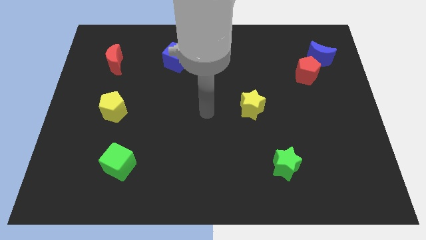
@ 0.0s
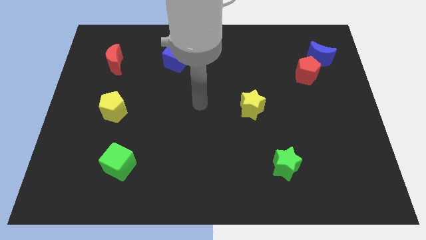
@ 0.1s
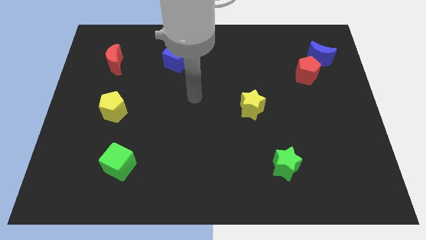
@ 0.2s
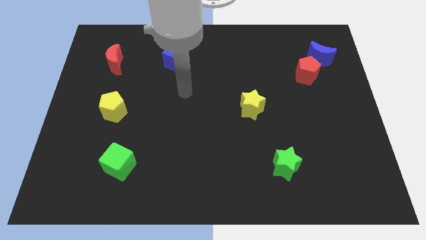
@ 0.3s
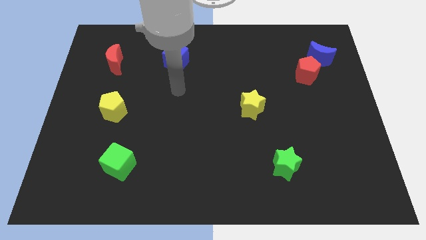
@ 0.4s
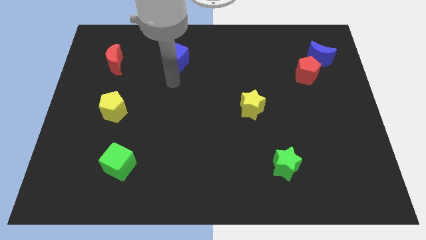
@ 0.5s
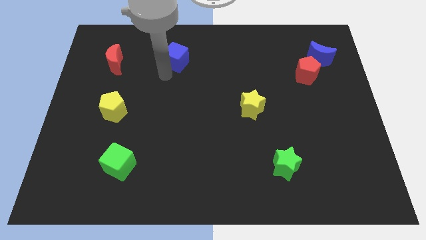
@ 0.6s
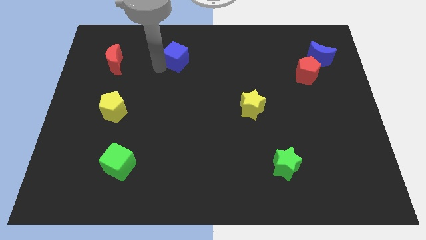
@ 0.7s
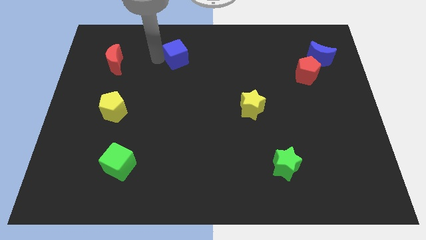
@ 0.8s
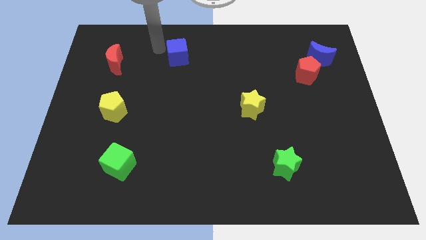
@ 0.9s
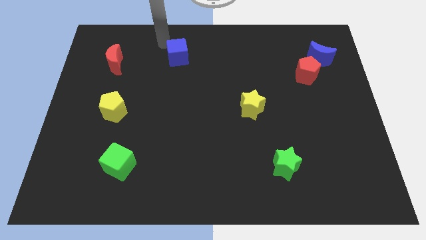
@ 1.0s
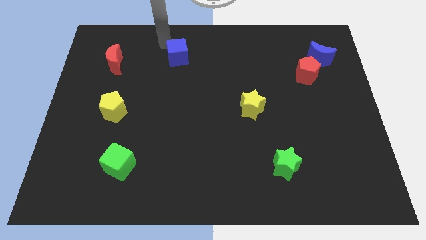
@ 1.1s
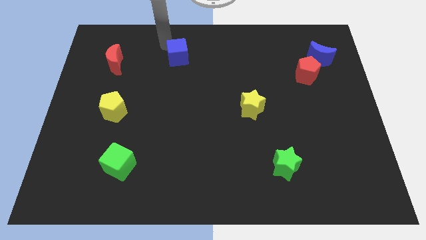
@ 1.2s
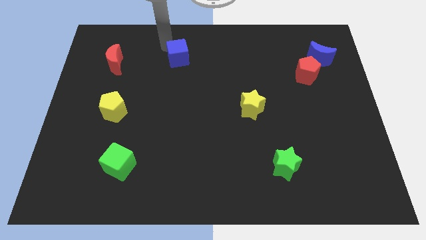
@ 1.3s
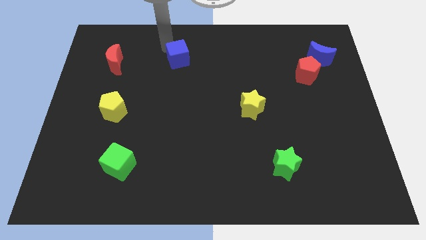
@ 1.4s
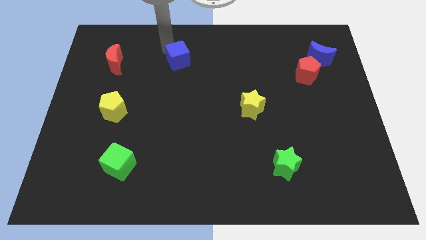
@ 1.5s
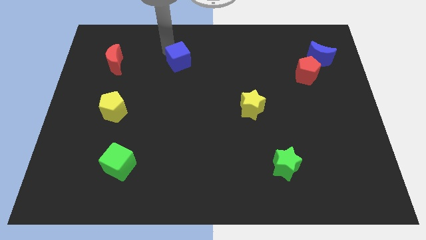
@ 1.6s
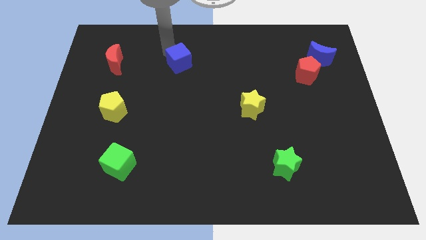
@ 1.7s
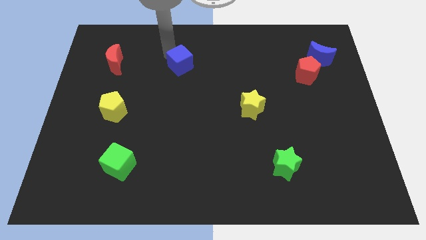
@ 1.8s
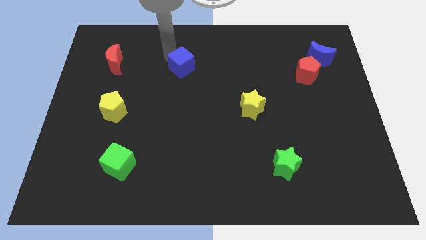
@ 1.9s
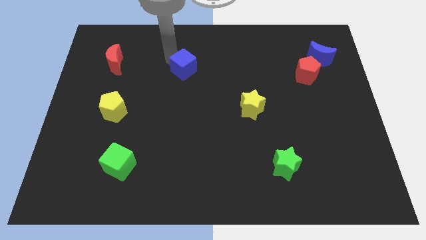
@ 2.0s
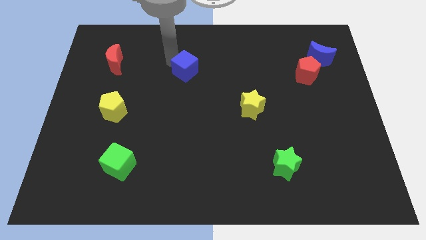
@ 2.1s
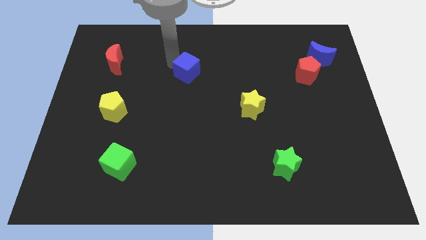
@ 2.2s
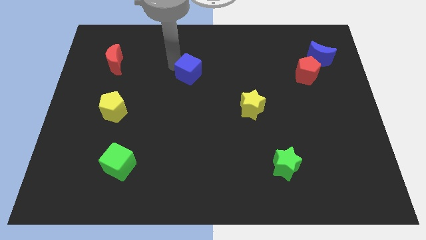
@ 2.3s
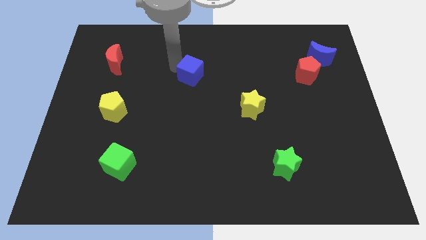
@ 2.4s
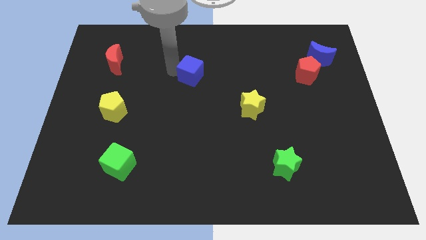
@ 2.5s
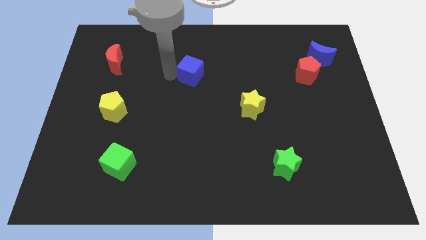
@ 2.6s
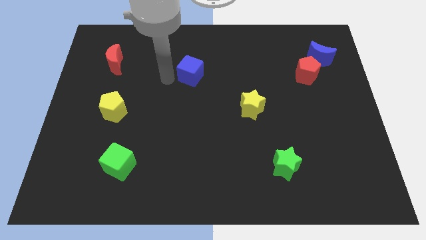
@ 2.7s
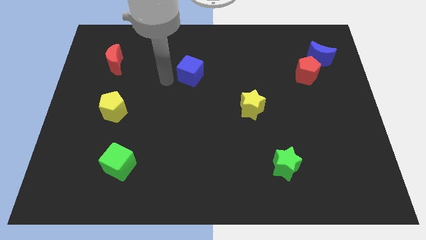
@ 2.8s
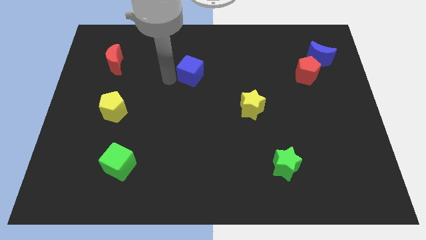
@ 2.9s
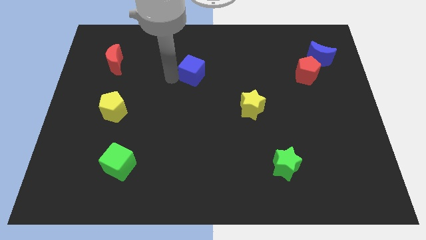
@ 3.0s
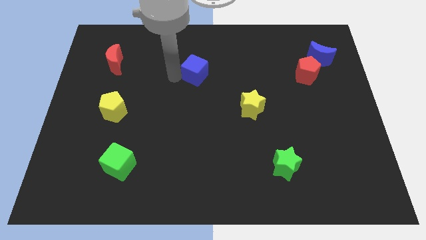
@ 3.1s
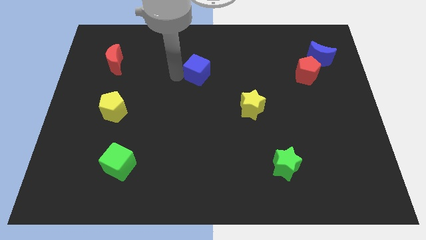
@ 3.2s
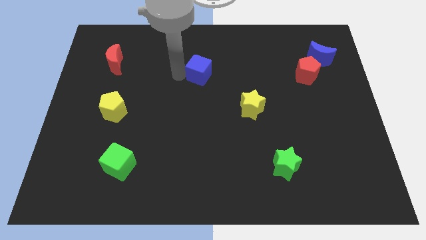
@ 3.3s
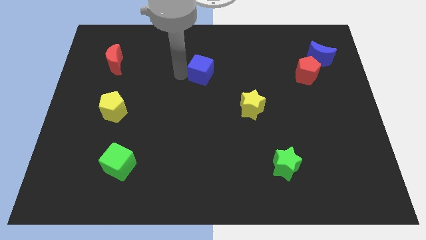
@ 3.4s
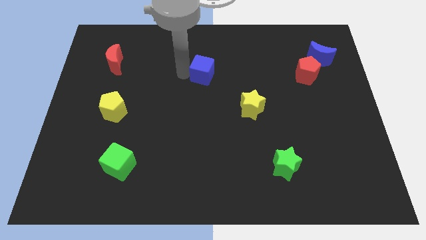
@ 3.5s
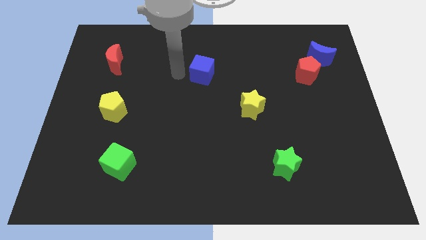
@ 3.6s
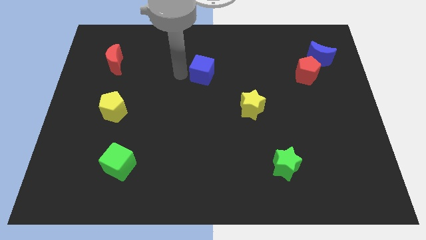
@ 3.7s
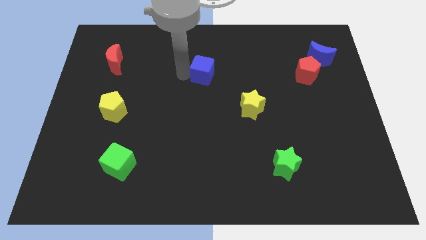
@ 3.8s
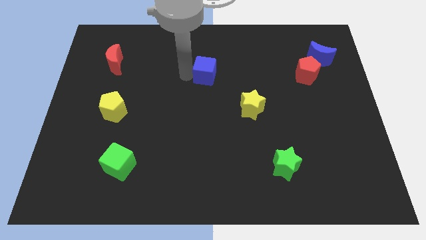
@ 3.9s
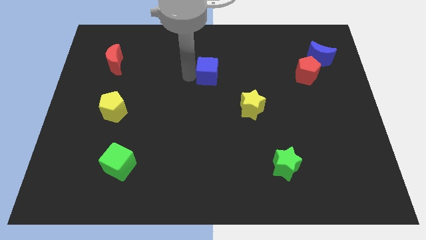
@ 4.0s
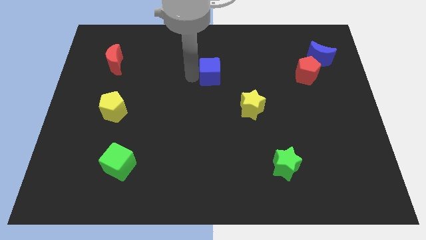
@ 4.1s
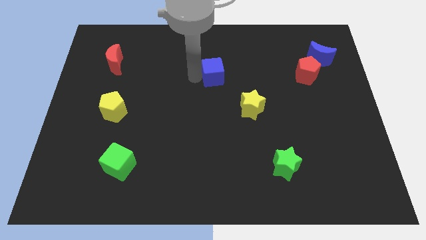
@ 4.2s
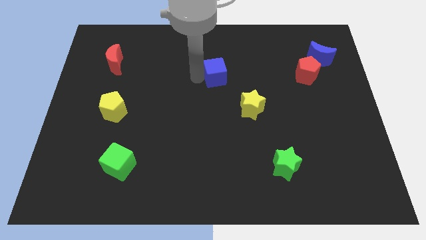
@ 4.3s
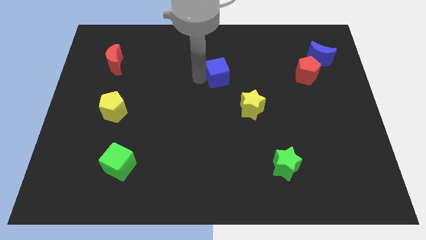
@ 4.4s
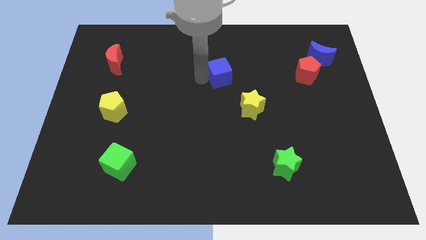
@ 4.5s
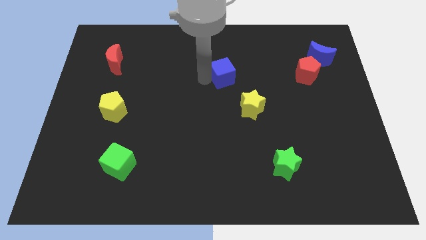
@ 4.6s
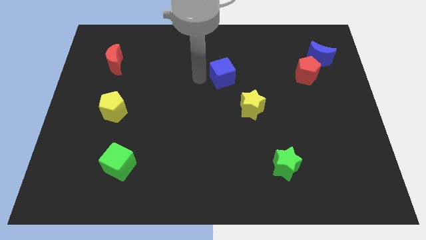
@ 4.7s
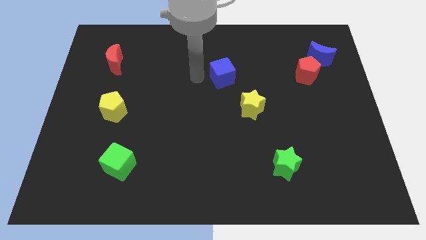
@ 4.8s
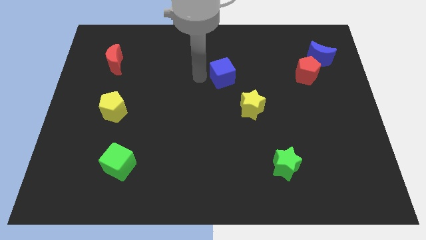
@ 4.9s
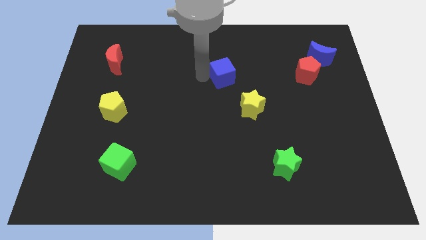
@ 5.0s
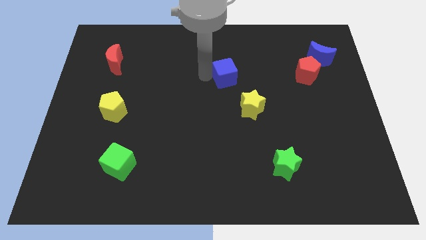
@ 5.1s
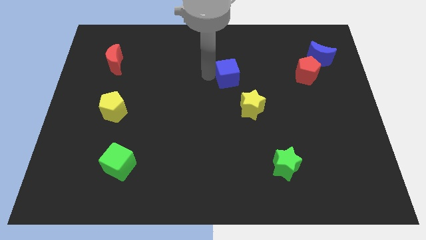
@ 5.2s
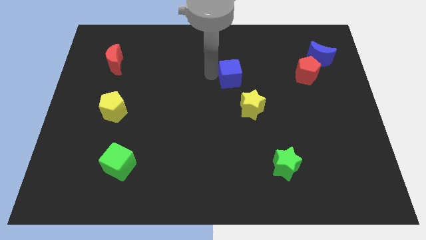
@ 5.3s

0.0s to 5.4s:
slide the blue cube to the top side of the yellow star

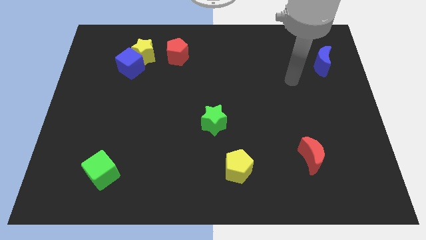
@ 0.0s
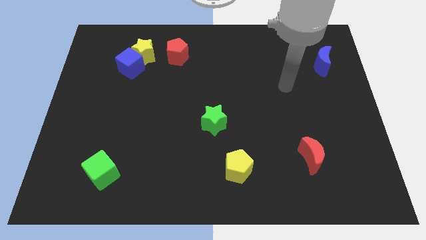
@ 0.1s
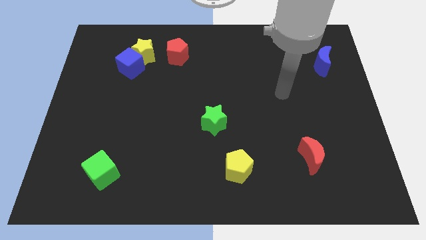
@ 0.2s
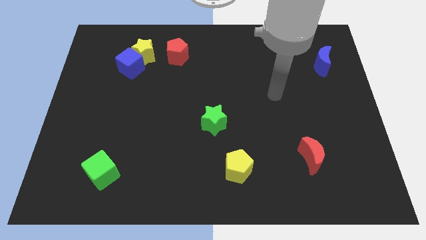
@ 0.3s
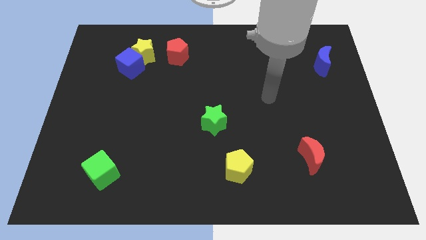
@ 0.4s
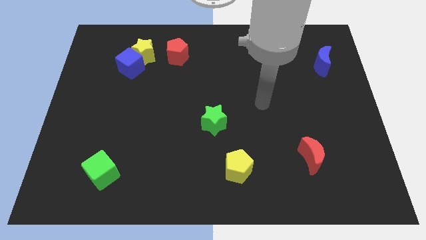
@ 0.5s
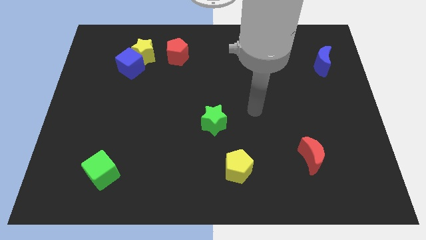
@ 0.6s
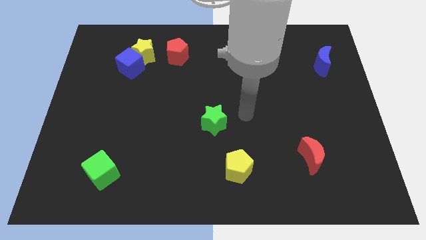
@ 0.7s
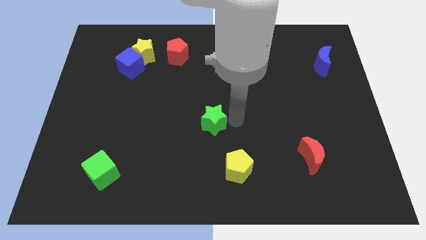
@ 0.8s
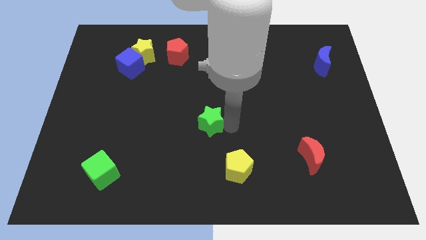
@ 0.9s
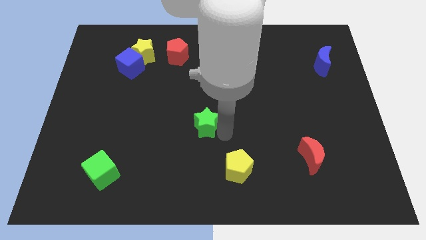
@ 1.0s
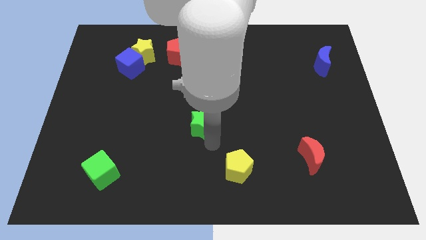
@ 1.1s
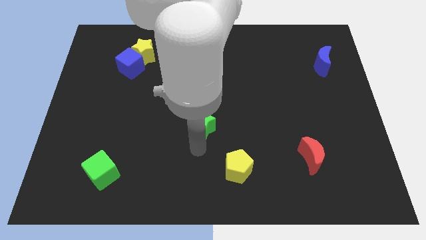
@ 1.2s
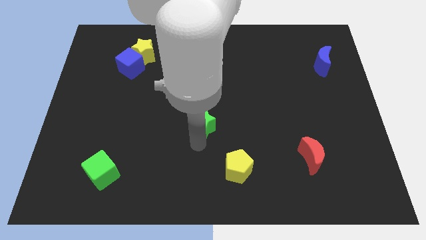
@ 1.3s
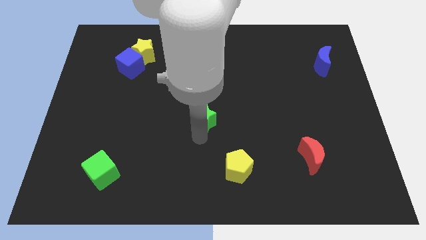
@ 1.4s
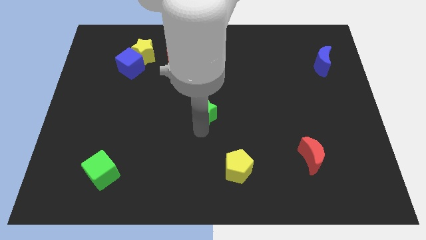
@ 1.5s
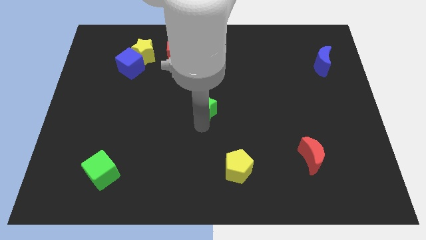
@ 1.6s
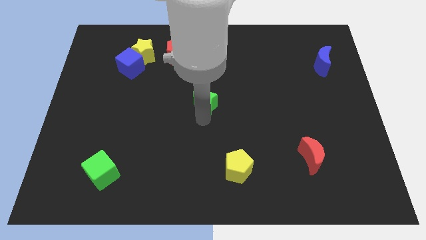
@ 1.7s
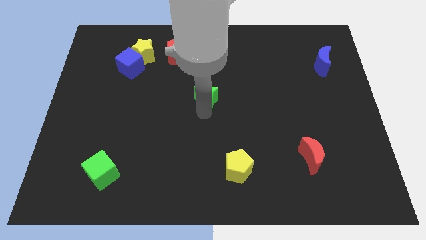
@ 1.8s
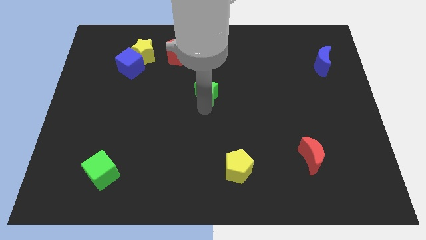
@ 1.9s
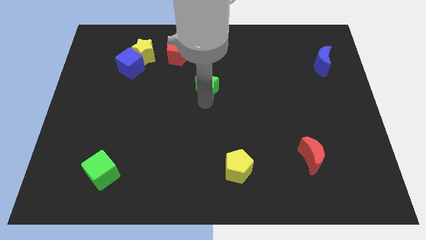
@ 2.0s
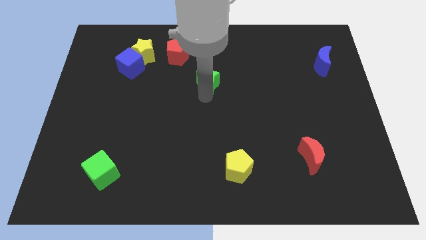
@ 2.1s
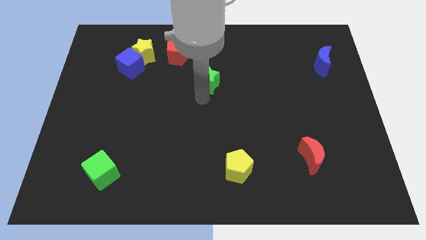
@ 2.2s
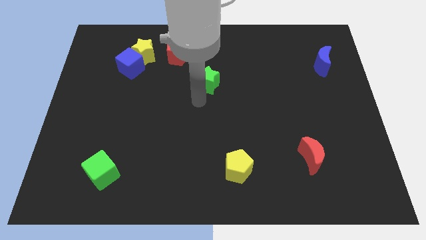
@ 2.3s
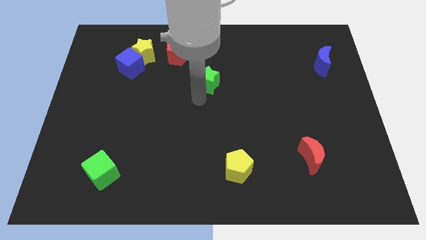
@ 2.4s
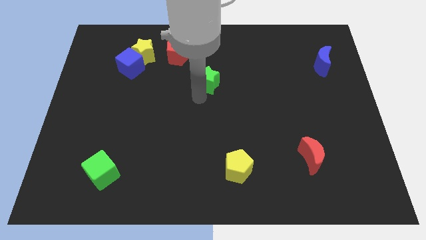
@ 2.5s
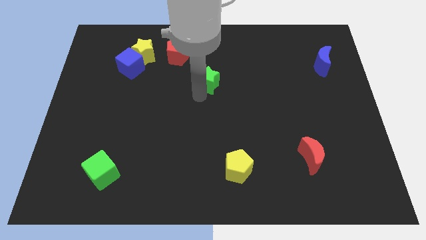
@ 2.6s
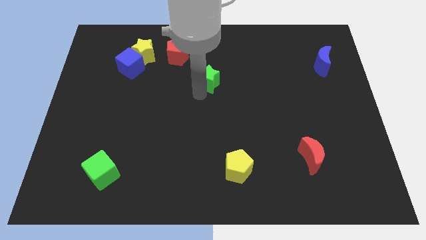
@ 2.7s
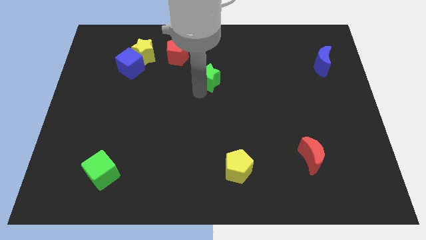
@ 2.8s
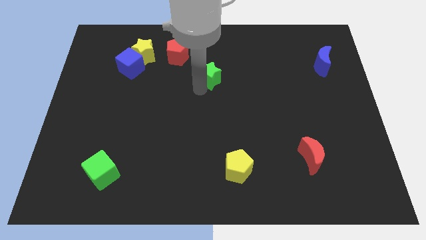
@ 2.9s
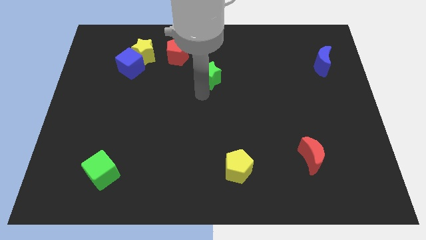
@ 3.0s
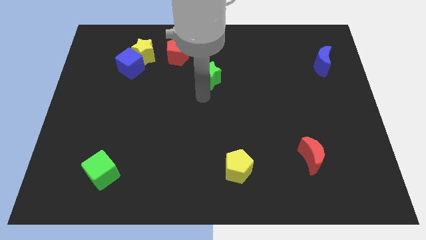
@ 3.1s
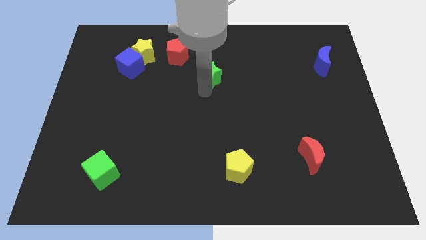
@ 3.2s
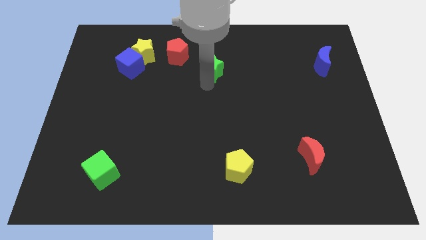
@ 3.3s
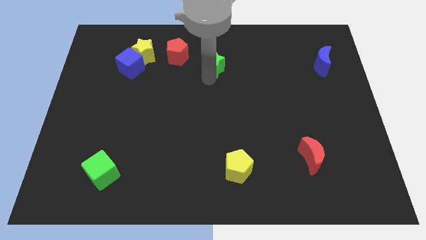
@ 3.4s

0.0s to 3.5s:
move the green star right of the red pentagon
